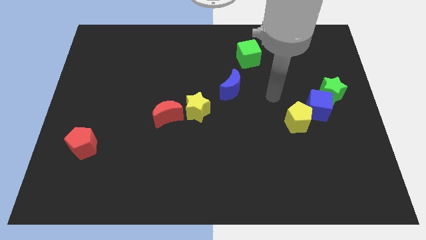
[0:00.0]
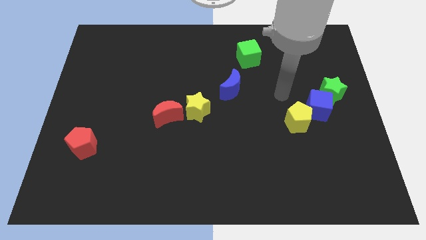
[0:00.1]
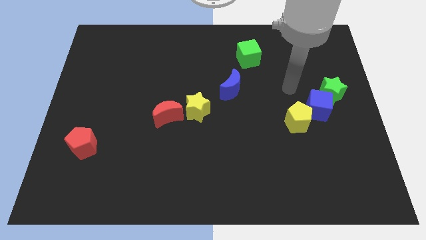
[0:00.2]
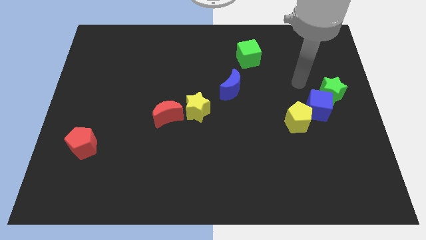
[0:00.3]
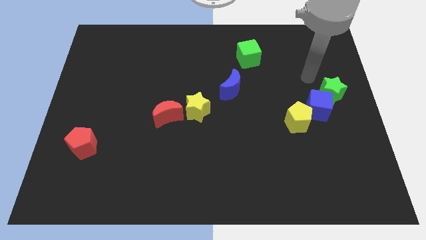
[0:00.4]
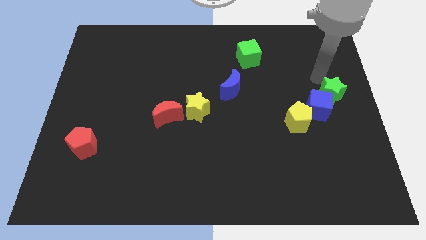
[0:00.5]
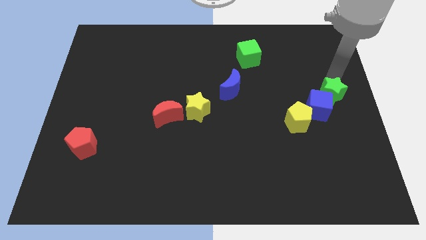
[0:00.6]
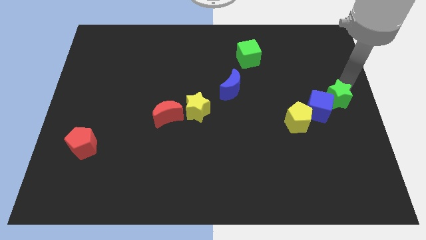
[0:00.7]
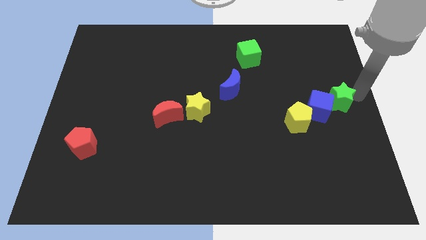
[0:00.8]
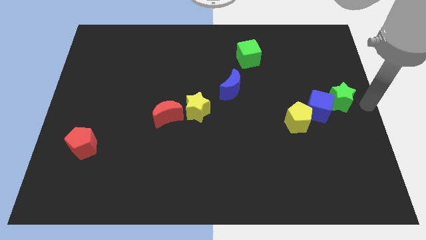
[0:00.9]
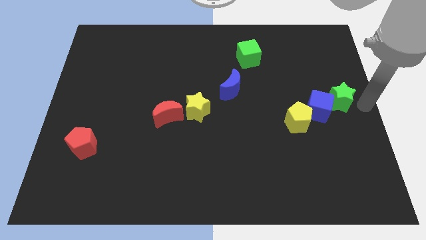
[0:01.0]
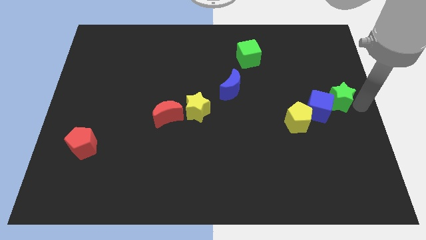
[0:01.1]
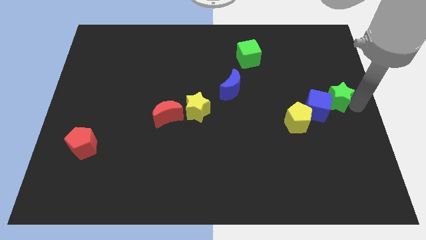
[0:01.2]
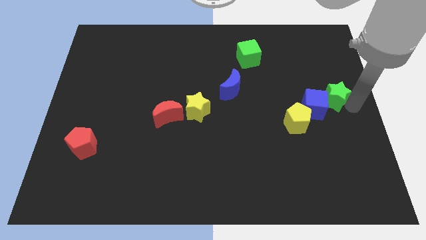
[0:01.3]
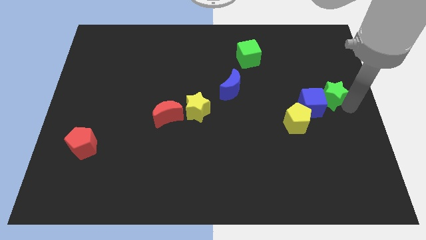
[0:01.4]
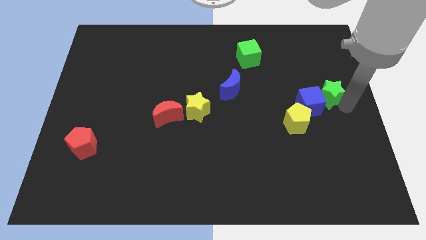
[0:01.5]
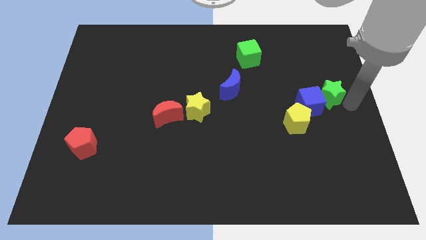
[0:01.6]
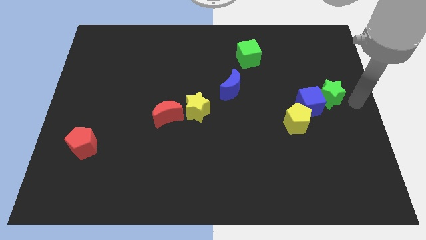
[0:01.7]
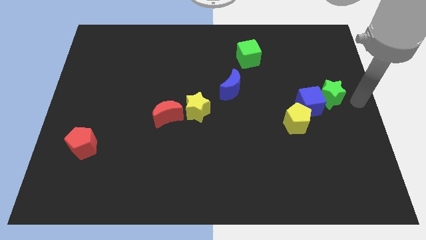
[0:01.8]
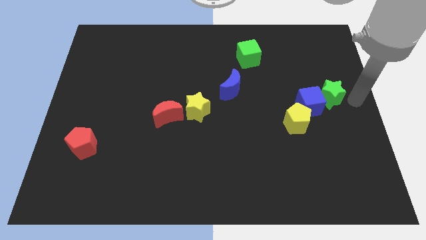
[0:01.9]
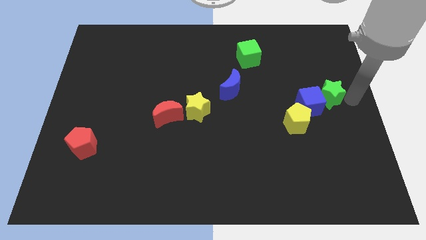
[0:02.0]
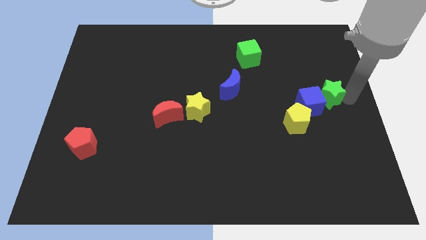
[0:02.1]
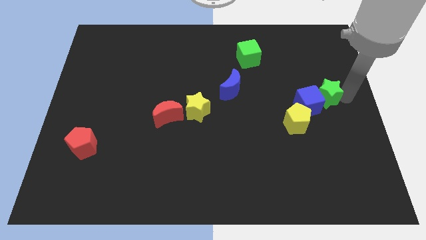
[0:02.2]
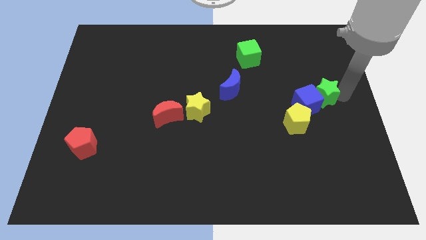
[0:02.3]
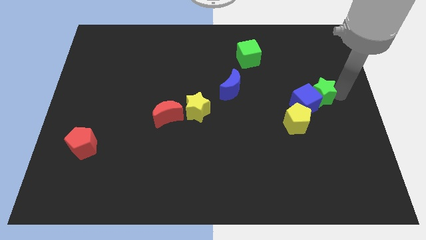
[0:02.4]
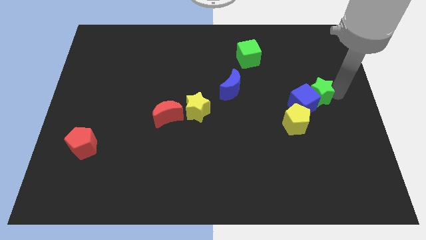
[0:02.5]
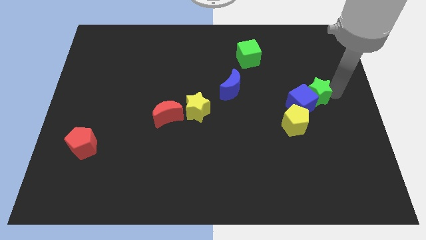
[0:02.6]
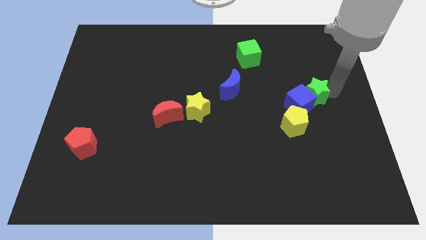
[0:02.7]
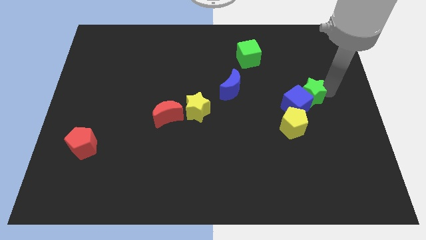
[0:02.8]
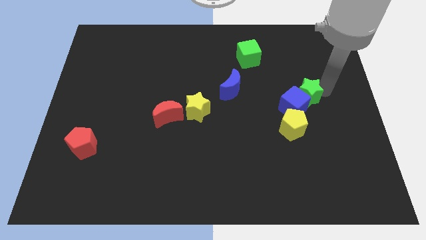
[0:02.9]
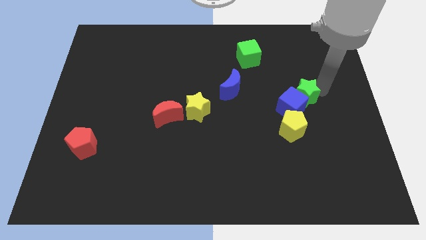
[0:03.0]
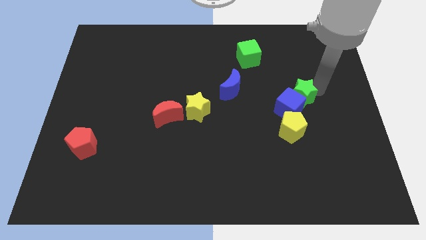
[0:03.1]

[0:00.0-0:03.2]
slide the green star left a little

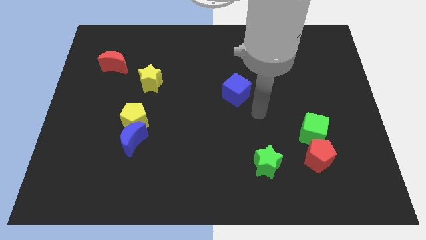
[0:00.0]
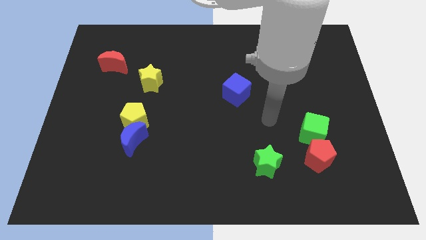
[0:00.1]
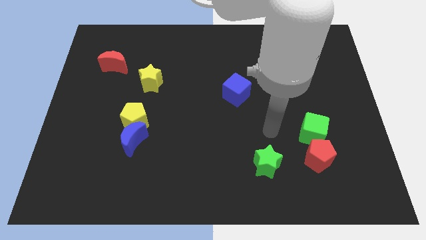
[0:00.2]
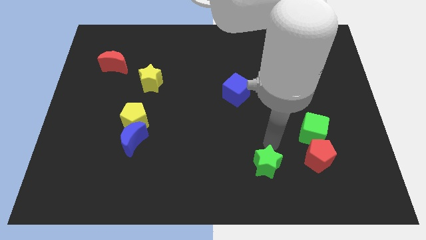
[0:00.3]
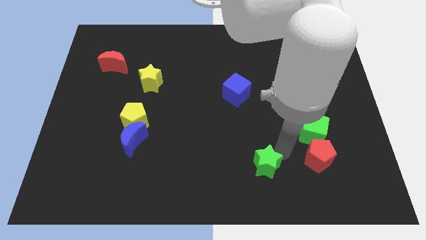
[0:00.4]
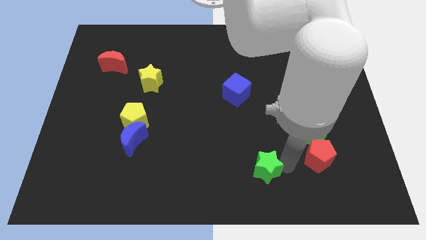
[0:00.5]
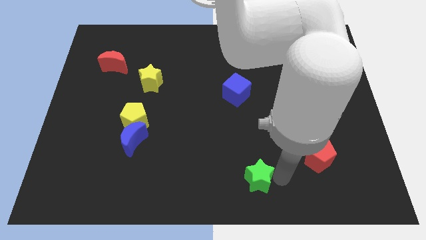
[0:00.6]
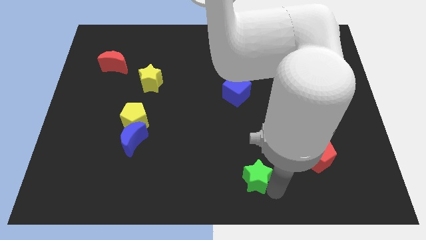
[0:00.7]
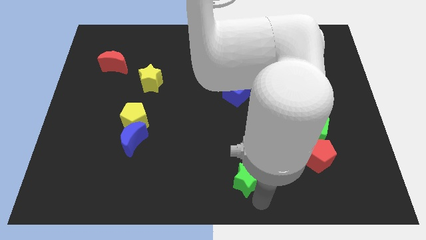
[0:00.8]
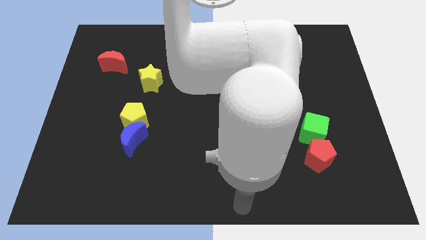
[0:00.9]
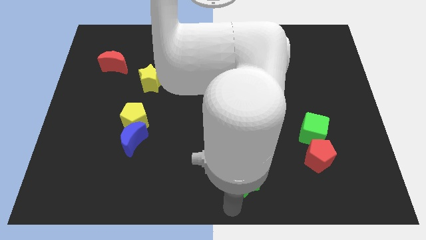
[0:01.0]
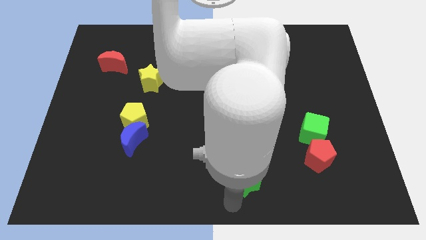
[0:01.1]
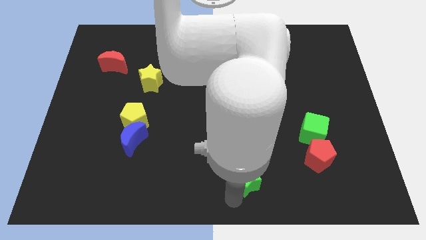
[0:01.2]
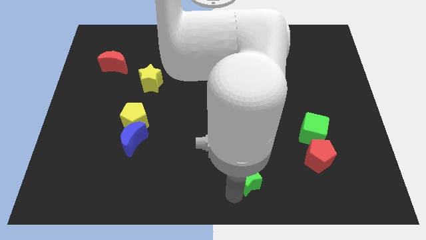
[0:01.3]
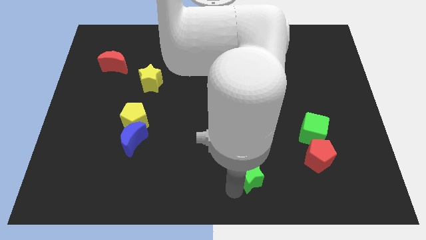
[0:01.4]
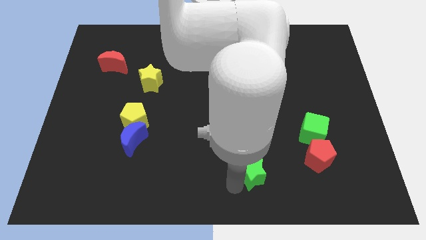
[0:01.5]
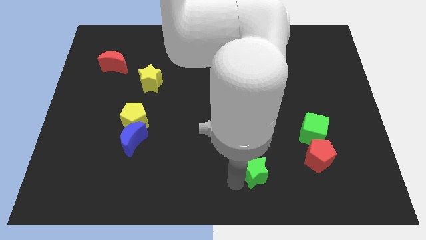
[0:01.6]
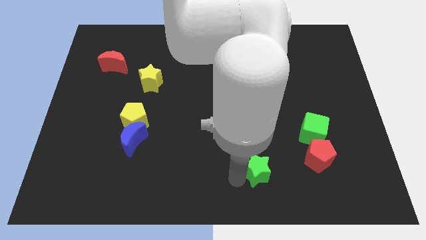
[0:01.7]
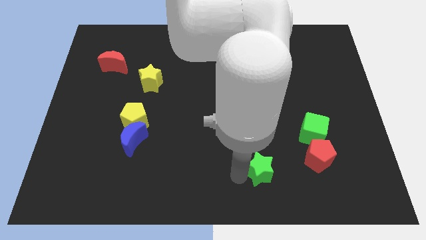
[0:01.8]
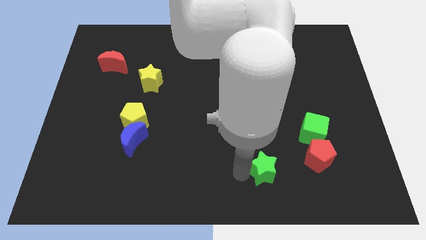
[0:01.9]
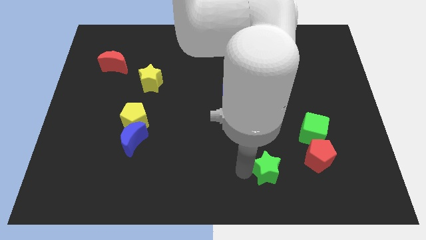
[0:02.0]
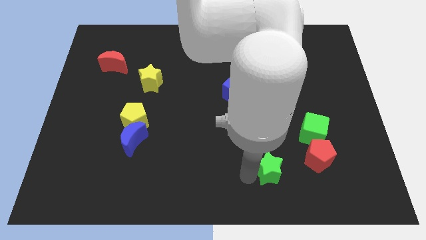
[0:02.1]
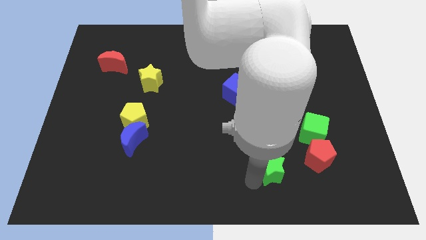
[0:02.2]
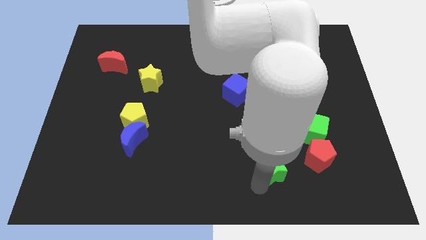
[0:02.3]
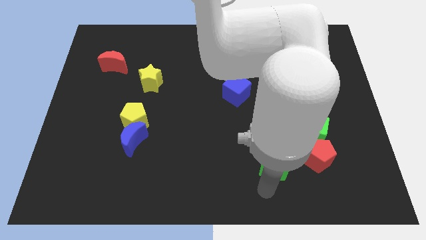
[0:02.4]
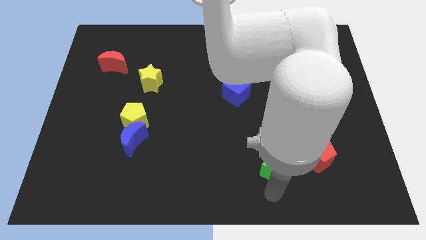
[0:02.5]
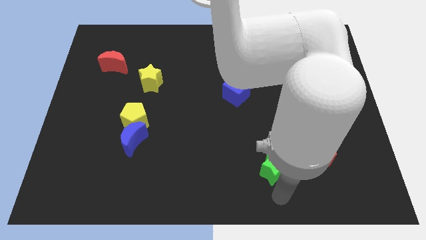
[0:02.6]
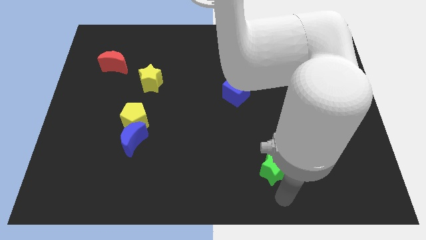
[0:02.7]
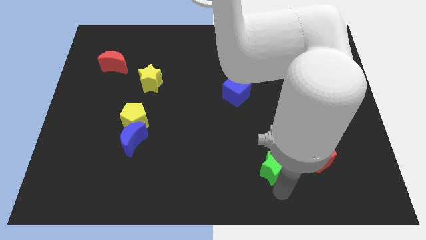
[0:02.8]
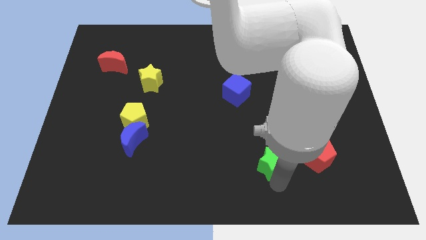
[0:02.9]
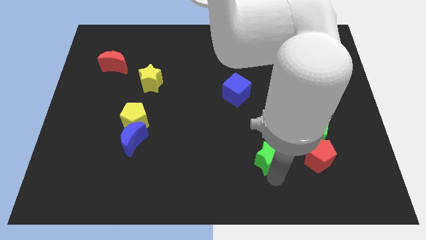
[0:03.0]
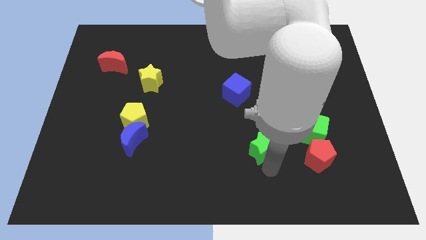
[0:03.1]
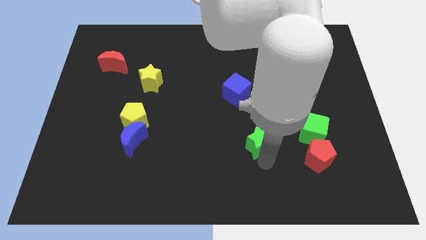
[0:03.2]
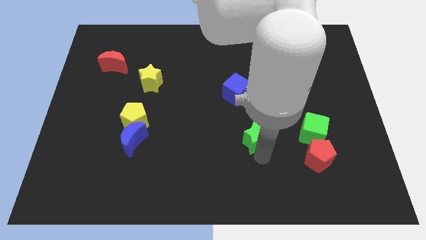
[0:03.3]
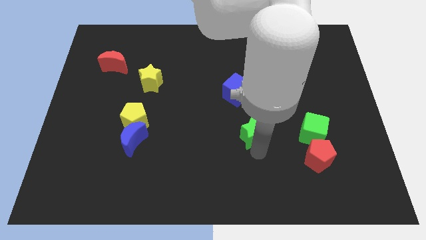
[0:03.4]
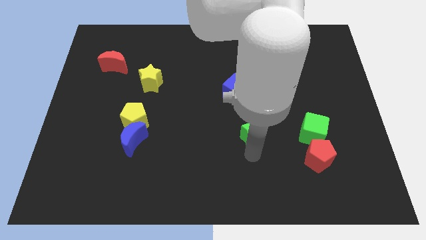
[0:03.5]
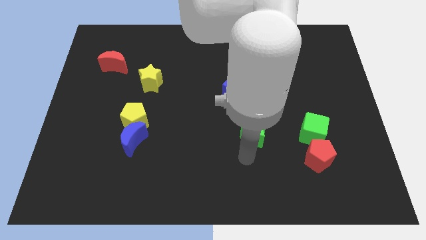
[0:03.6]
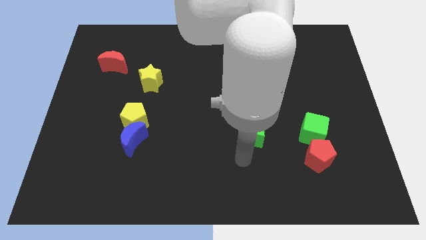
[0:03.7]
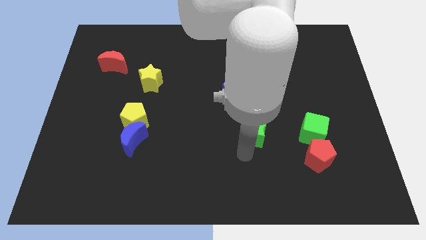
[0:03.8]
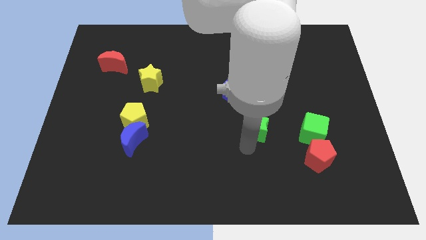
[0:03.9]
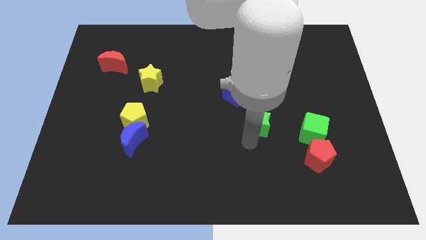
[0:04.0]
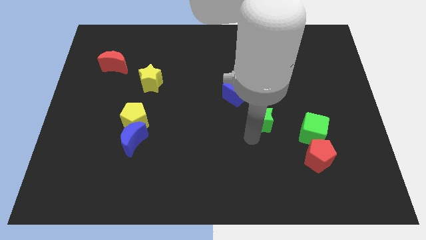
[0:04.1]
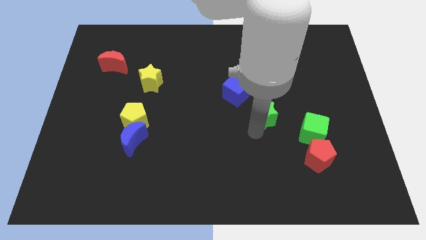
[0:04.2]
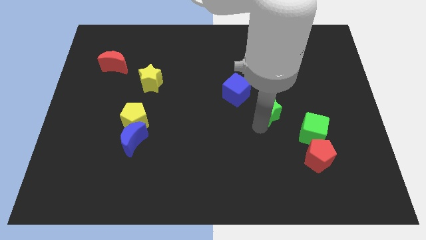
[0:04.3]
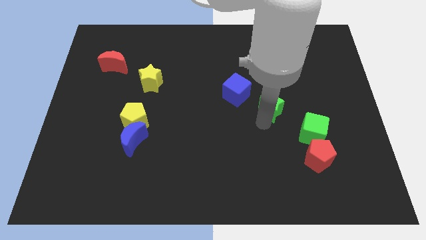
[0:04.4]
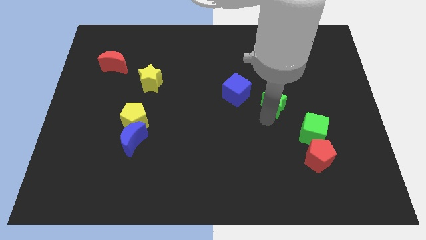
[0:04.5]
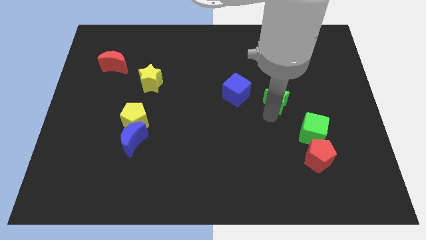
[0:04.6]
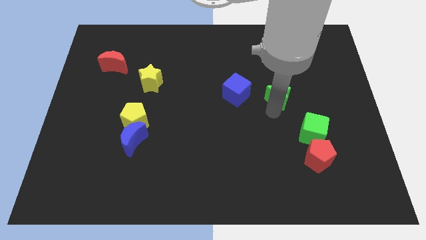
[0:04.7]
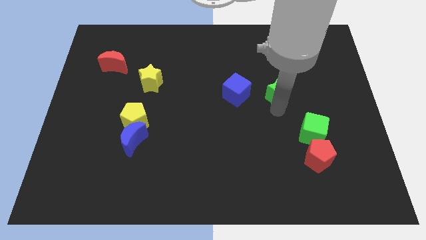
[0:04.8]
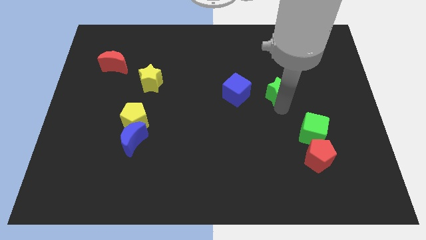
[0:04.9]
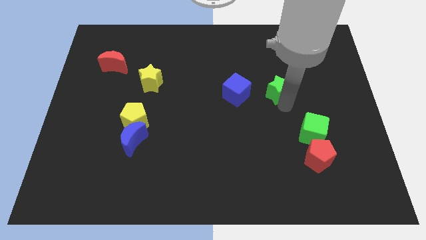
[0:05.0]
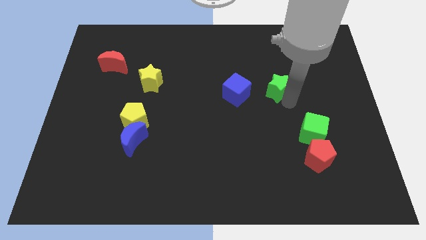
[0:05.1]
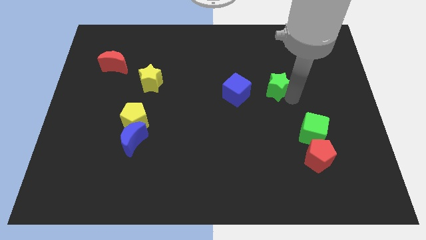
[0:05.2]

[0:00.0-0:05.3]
push the green star up
